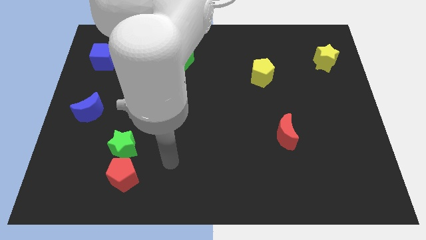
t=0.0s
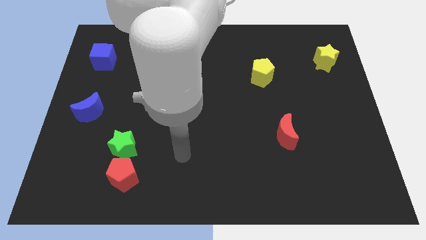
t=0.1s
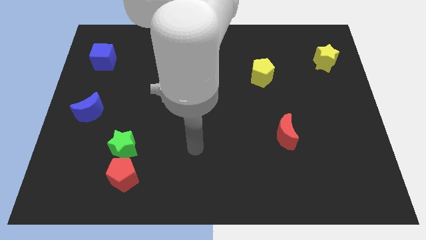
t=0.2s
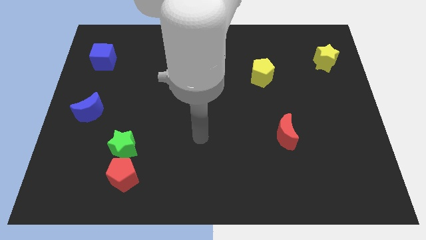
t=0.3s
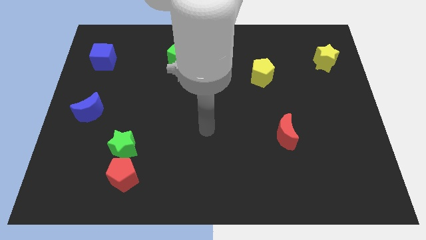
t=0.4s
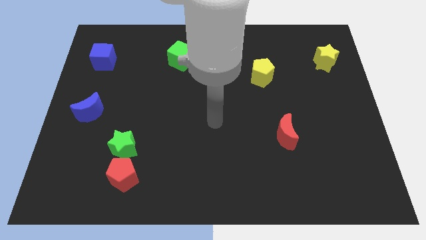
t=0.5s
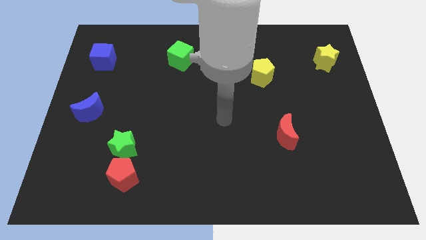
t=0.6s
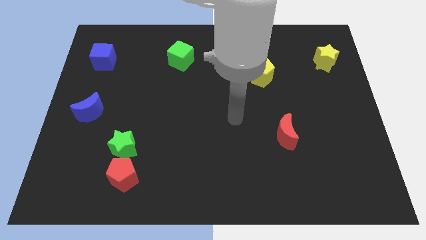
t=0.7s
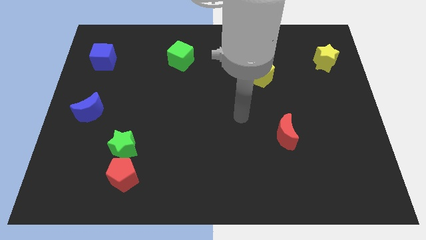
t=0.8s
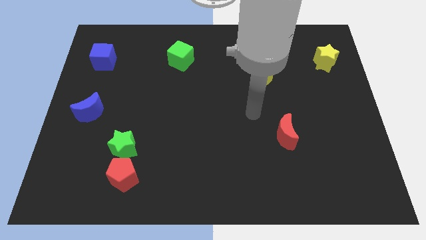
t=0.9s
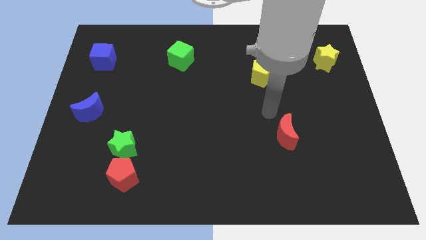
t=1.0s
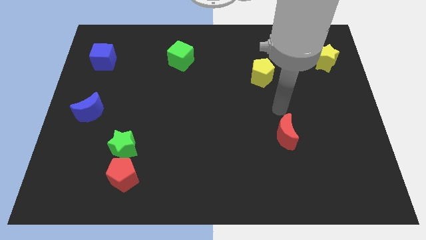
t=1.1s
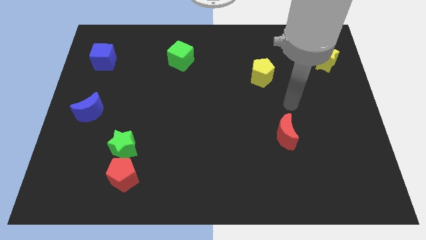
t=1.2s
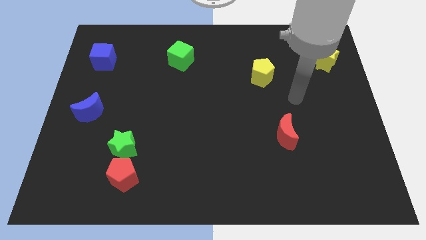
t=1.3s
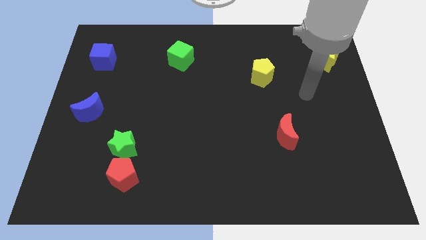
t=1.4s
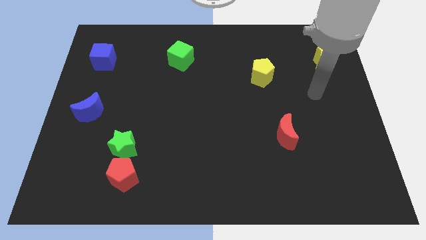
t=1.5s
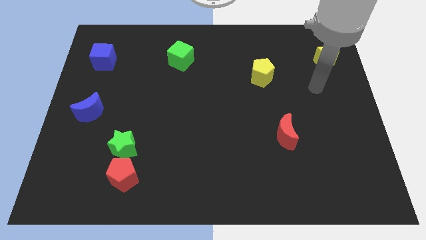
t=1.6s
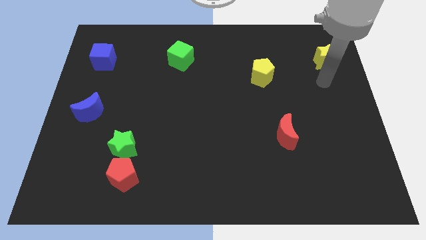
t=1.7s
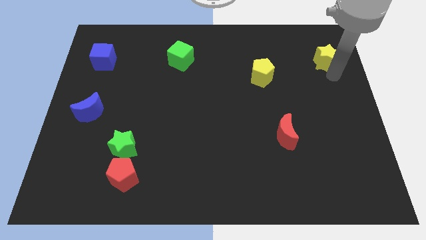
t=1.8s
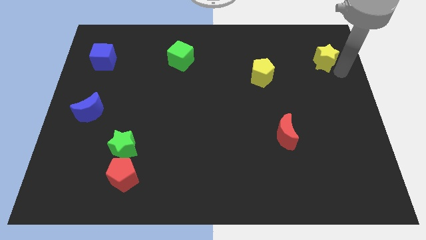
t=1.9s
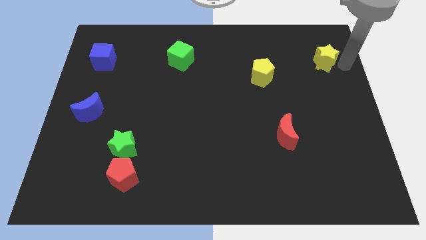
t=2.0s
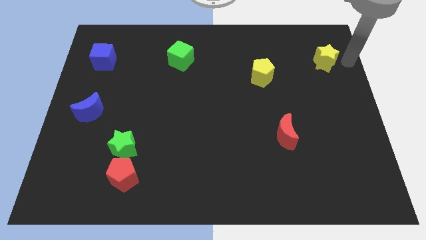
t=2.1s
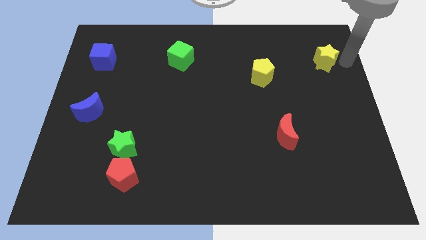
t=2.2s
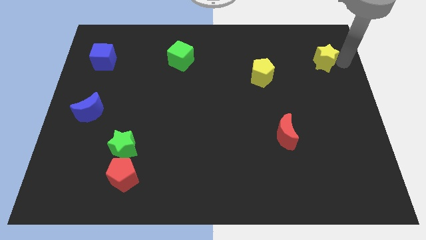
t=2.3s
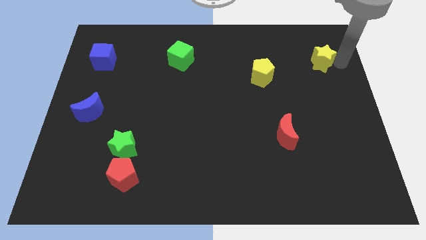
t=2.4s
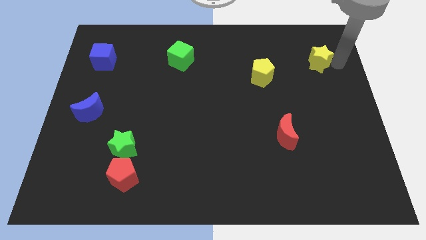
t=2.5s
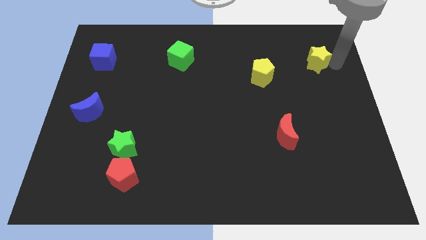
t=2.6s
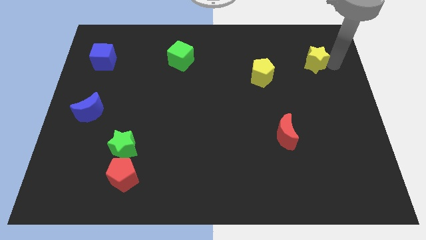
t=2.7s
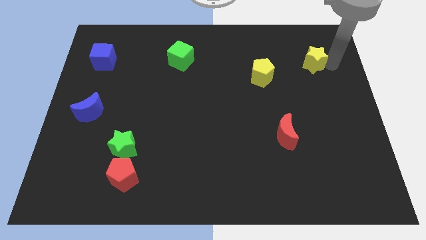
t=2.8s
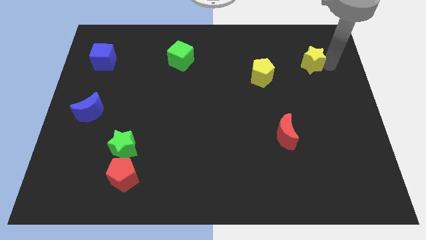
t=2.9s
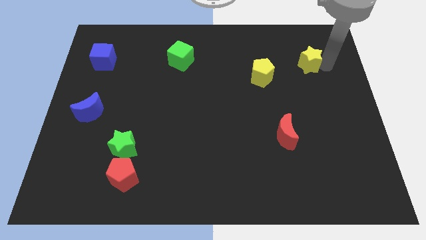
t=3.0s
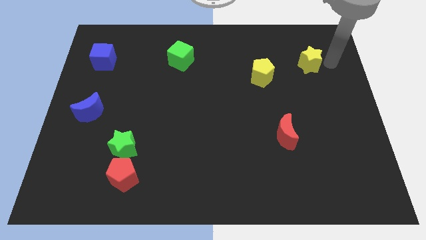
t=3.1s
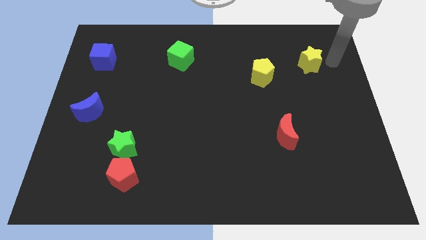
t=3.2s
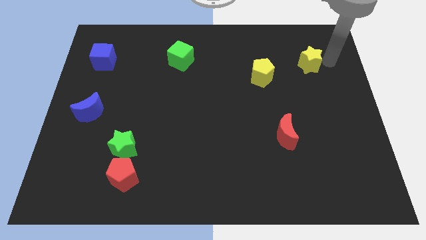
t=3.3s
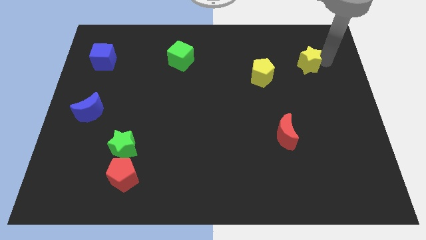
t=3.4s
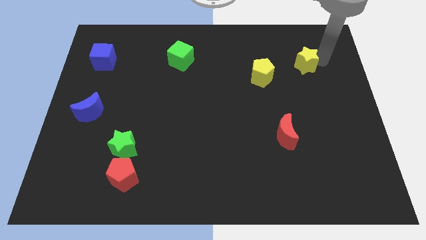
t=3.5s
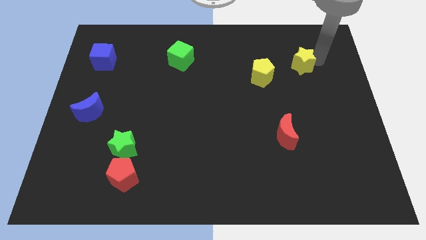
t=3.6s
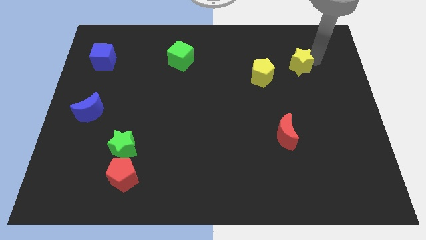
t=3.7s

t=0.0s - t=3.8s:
slide the yellow star a little bit left

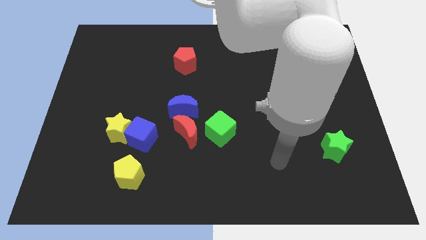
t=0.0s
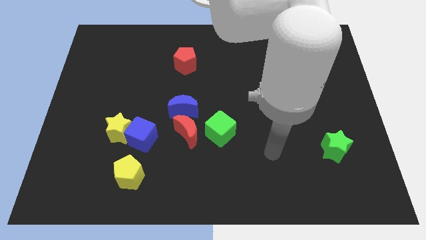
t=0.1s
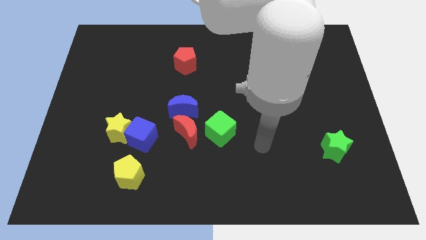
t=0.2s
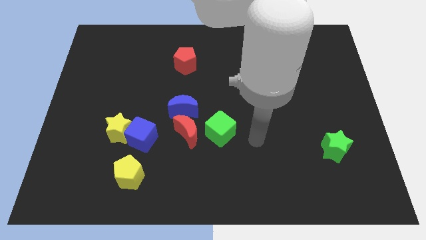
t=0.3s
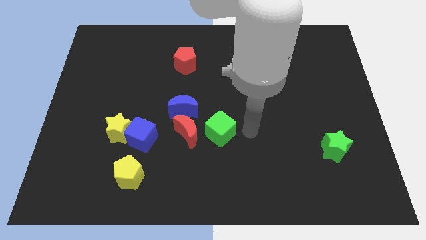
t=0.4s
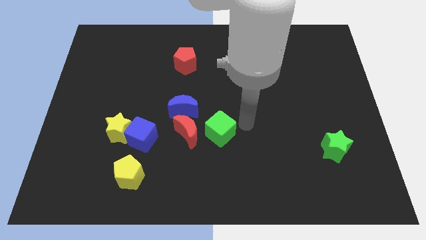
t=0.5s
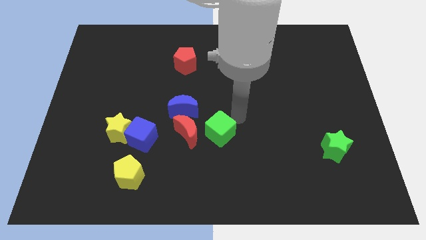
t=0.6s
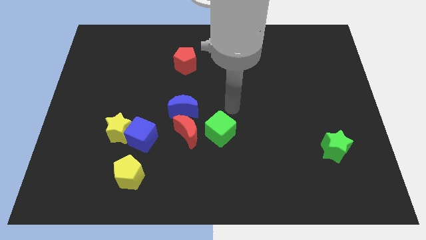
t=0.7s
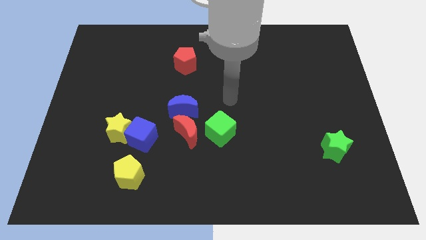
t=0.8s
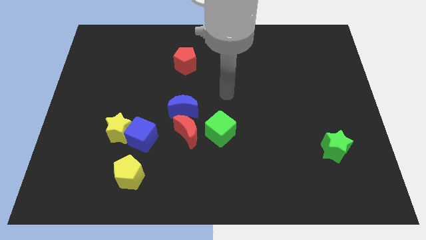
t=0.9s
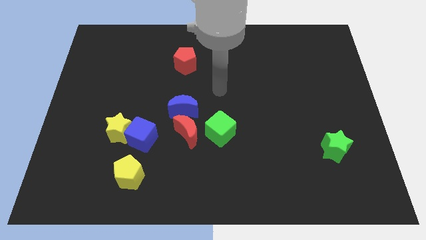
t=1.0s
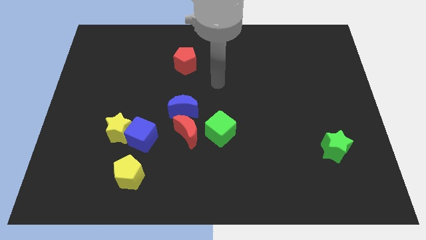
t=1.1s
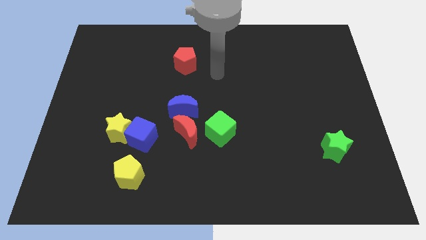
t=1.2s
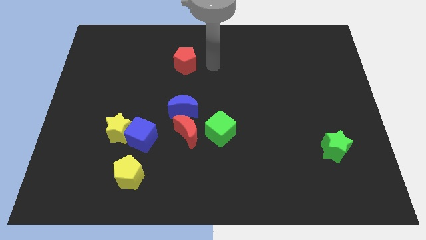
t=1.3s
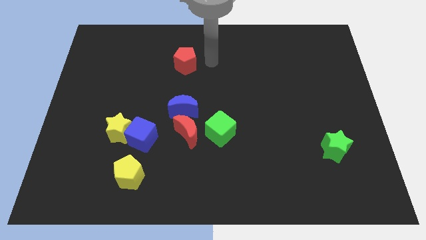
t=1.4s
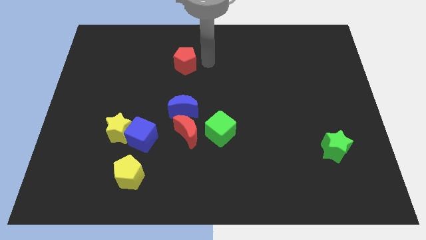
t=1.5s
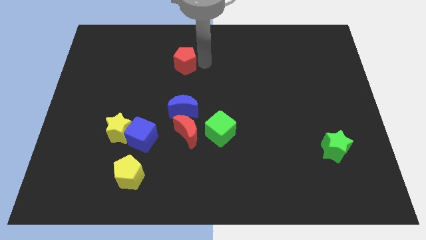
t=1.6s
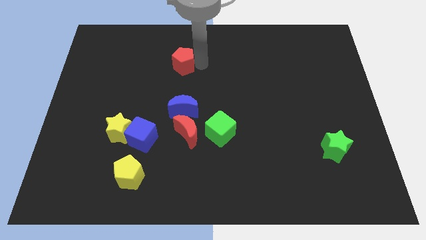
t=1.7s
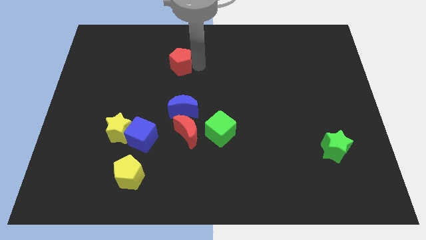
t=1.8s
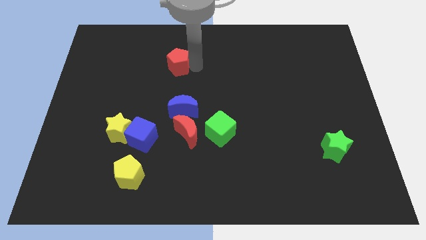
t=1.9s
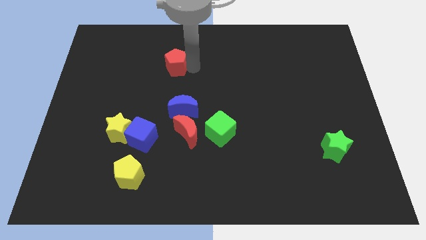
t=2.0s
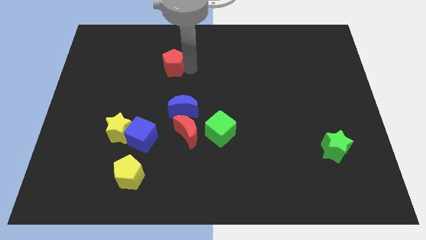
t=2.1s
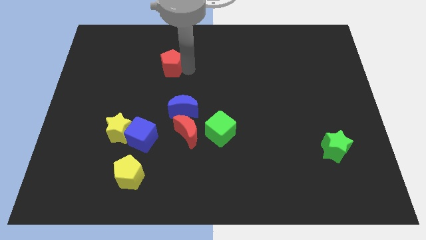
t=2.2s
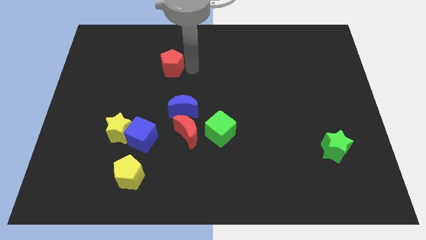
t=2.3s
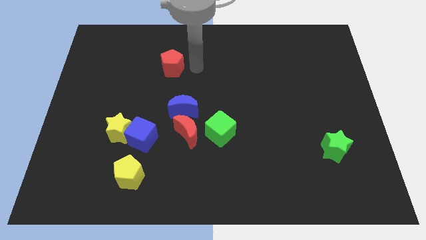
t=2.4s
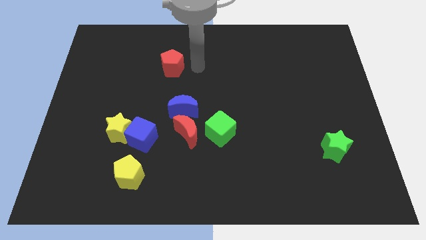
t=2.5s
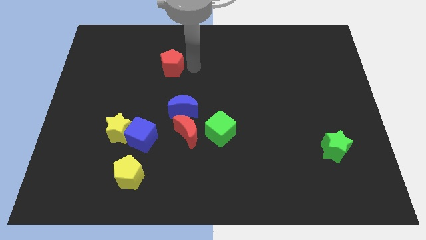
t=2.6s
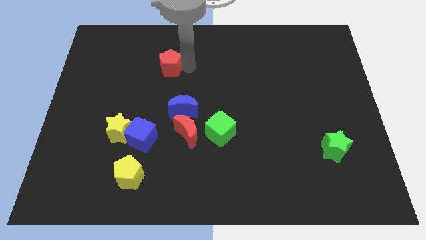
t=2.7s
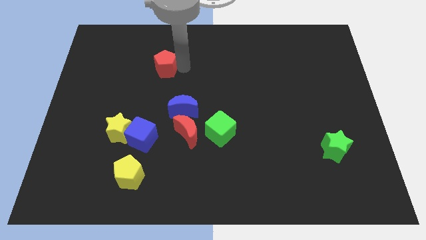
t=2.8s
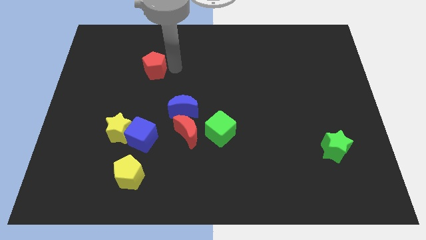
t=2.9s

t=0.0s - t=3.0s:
slightly move the red pentagon left

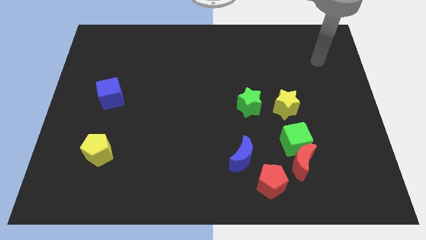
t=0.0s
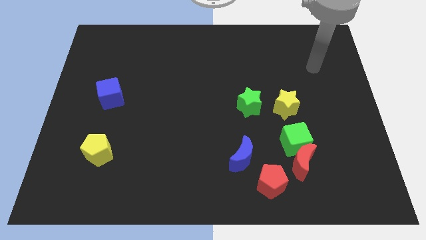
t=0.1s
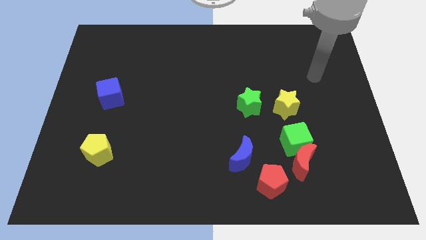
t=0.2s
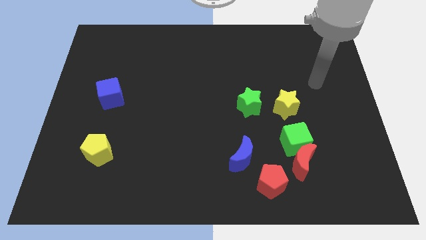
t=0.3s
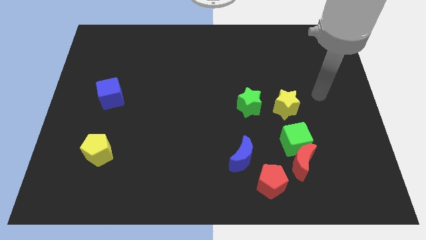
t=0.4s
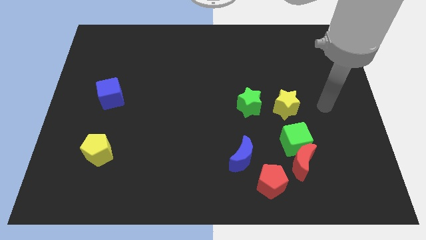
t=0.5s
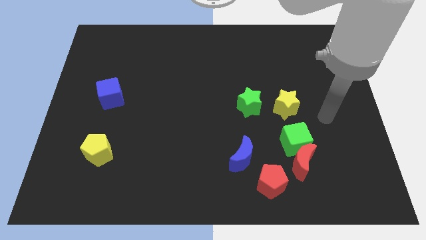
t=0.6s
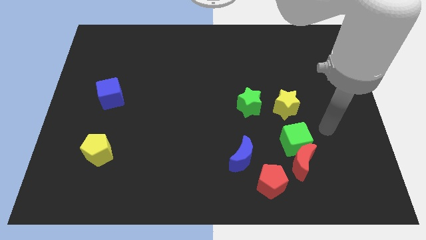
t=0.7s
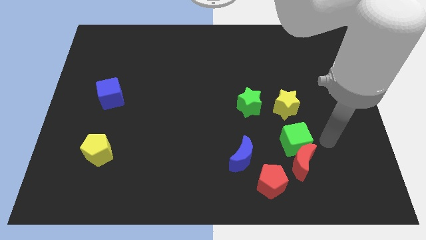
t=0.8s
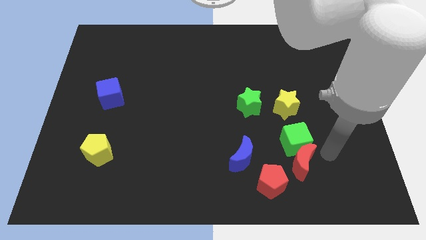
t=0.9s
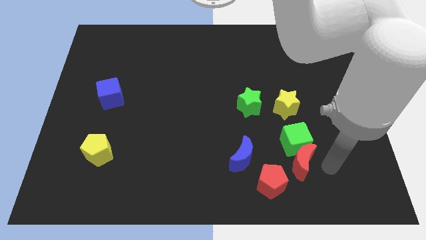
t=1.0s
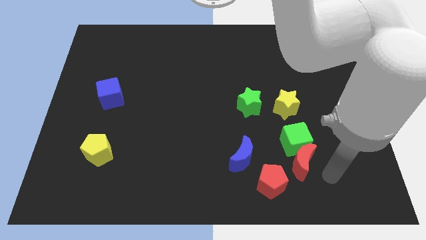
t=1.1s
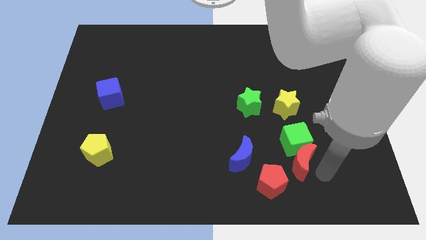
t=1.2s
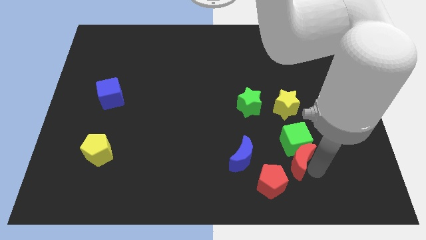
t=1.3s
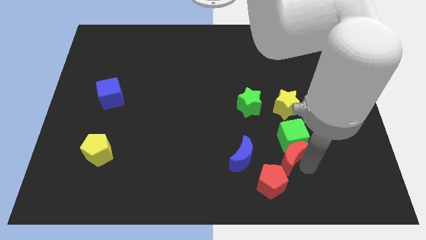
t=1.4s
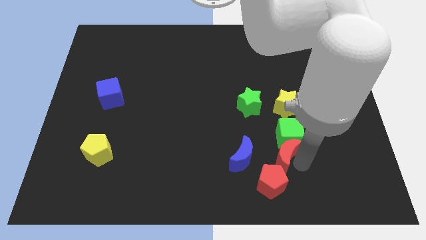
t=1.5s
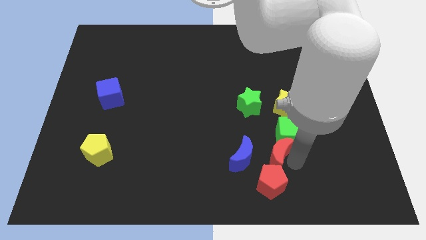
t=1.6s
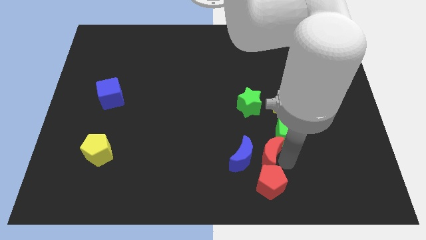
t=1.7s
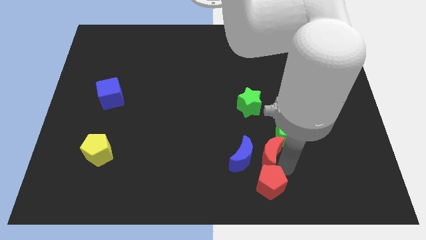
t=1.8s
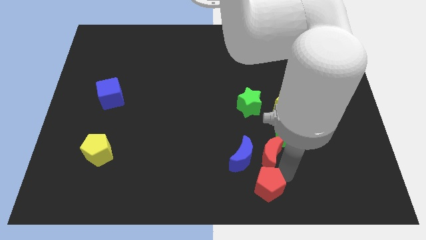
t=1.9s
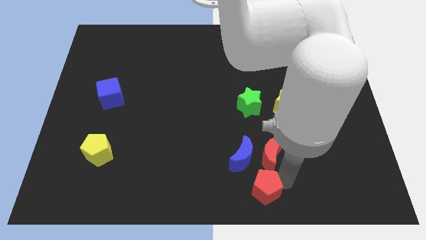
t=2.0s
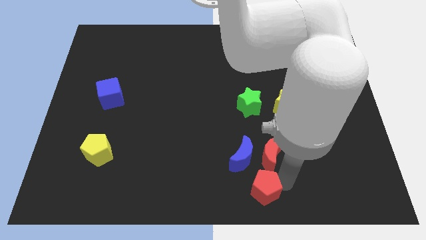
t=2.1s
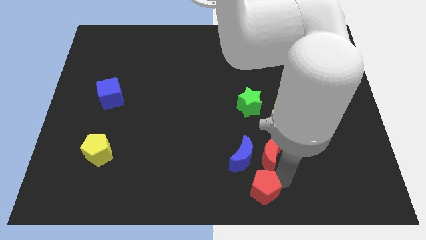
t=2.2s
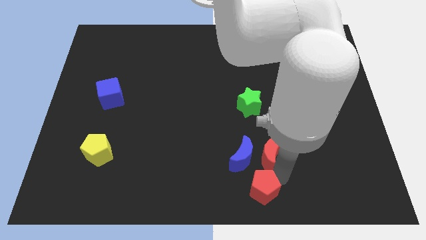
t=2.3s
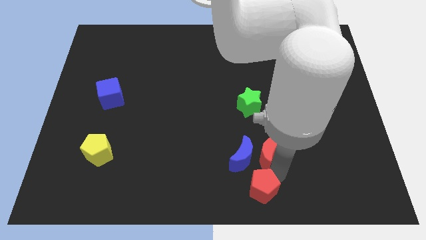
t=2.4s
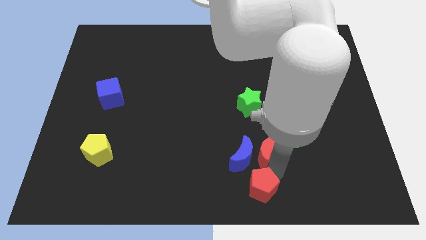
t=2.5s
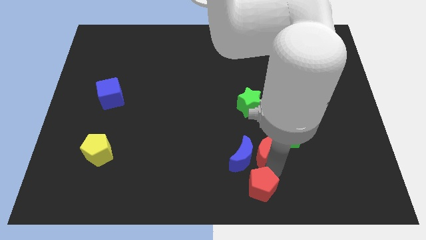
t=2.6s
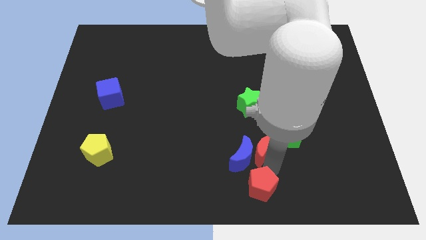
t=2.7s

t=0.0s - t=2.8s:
move the red moon upwards and left diagonally somewhat
